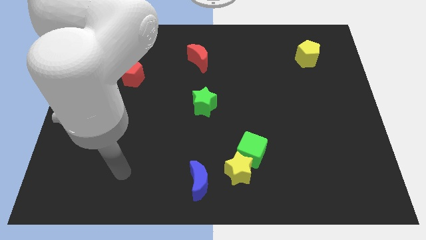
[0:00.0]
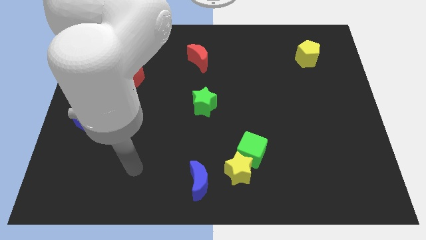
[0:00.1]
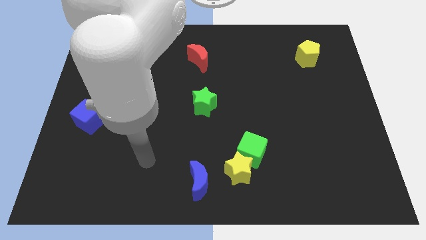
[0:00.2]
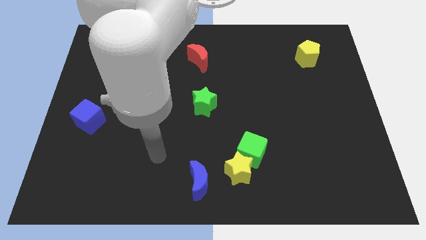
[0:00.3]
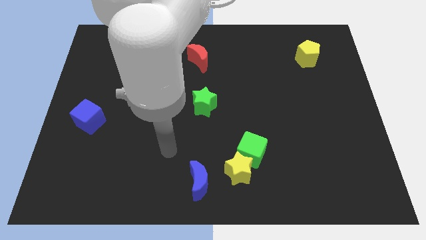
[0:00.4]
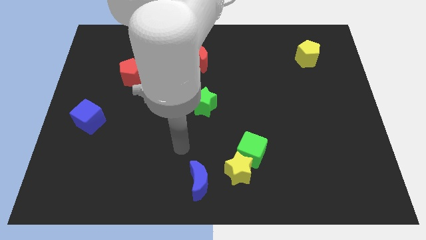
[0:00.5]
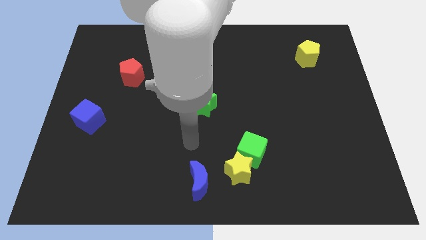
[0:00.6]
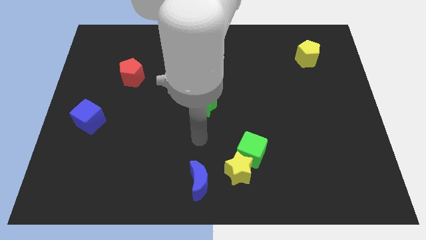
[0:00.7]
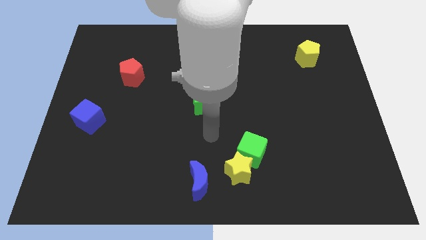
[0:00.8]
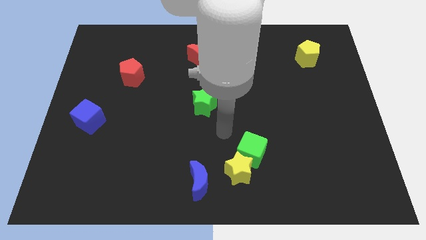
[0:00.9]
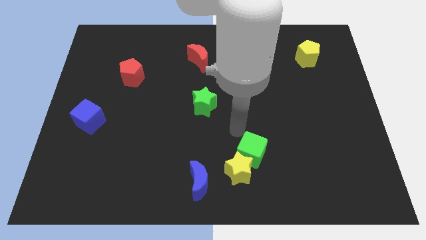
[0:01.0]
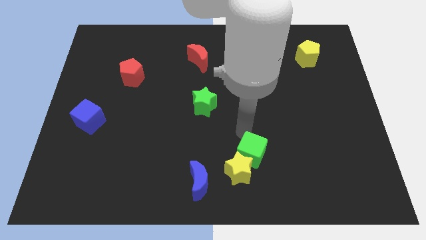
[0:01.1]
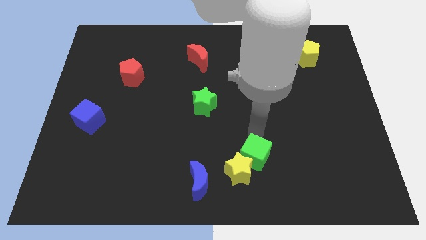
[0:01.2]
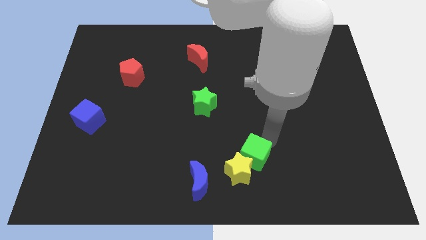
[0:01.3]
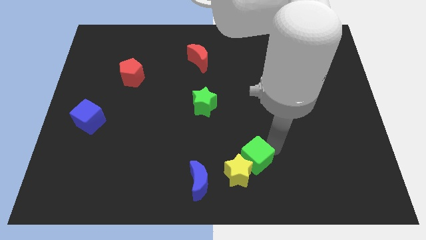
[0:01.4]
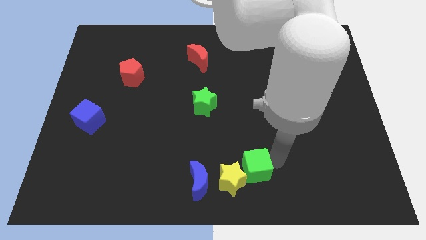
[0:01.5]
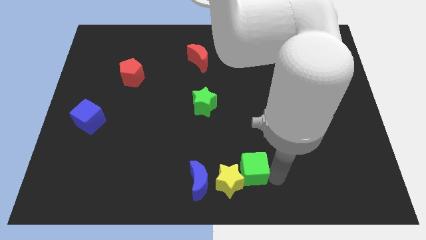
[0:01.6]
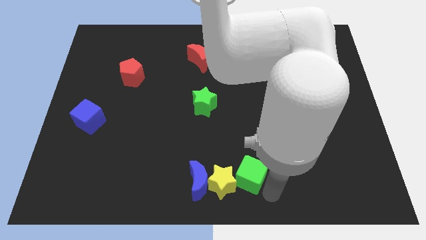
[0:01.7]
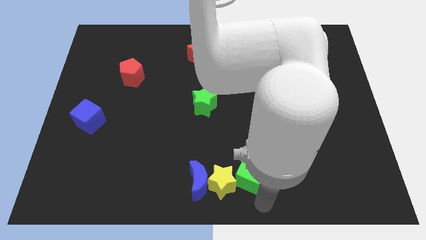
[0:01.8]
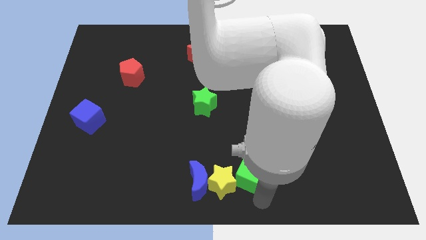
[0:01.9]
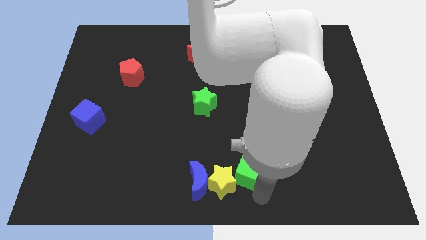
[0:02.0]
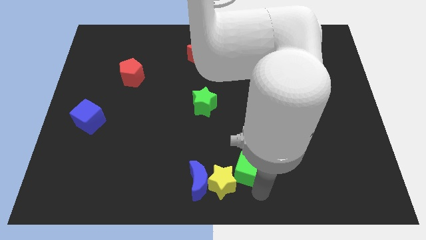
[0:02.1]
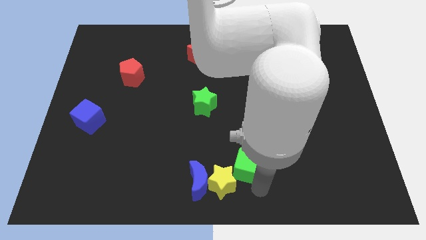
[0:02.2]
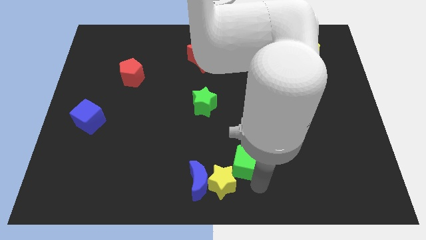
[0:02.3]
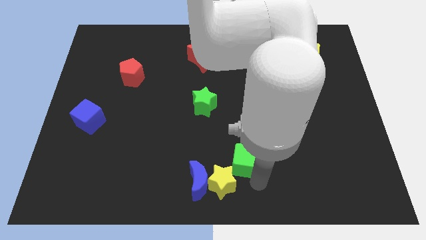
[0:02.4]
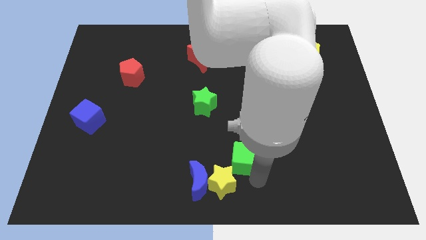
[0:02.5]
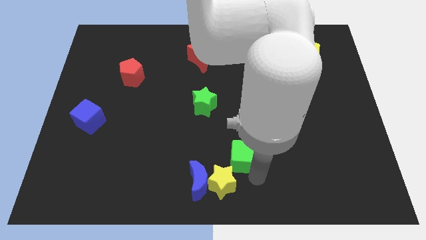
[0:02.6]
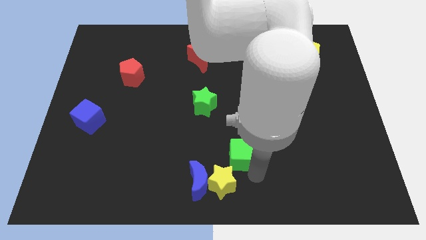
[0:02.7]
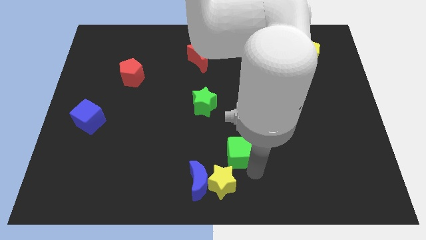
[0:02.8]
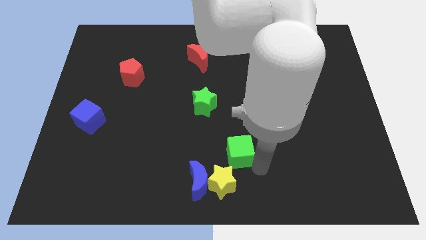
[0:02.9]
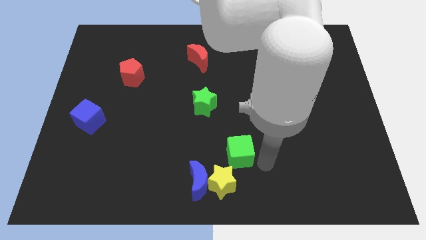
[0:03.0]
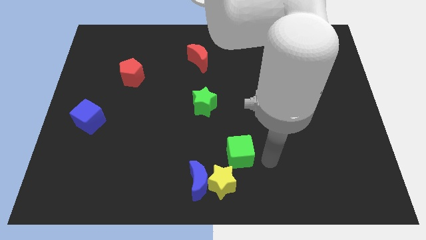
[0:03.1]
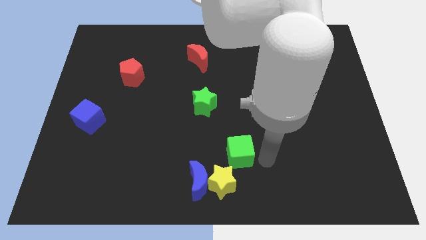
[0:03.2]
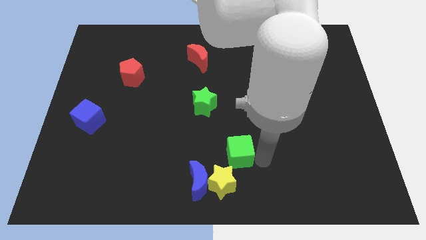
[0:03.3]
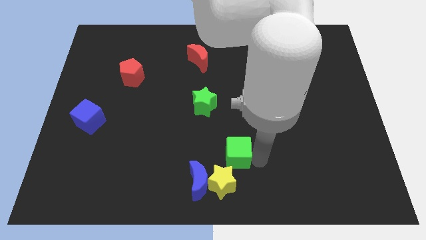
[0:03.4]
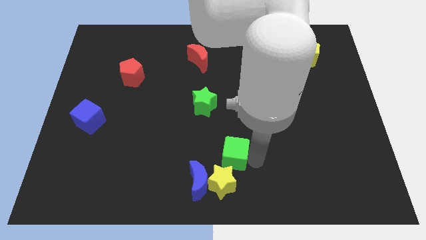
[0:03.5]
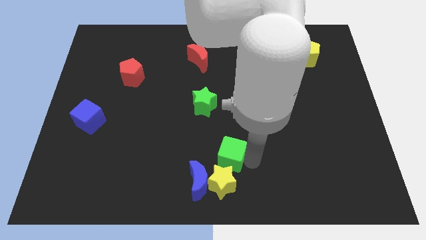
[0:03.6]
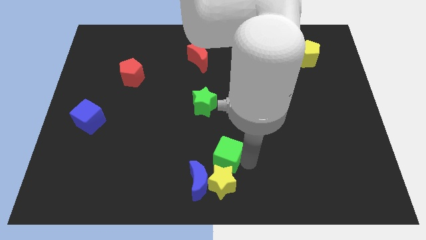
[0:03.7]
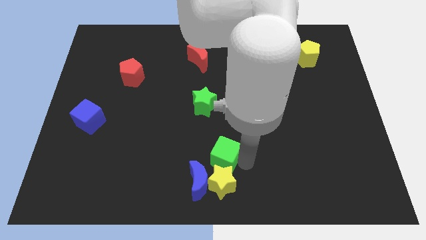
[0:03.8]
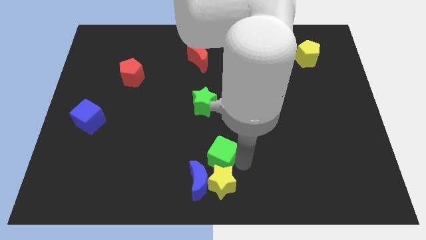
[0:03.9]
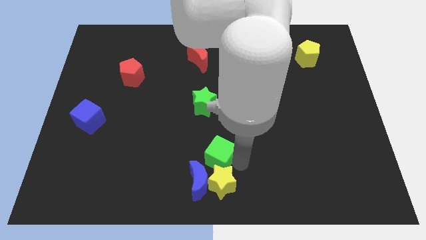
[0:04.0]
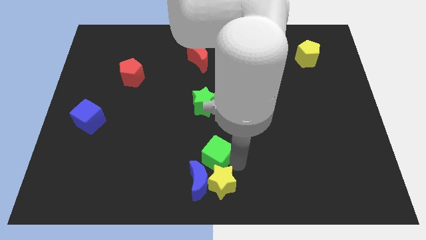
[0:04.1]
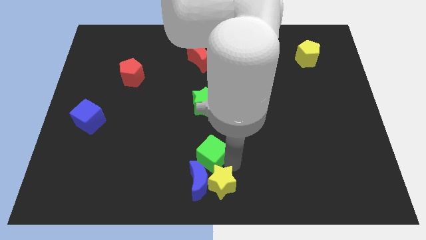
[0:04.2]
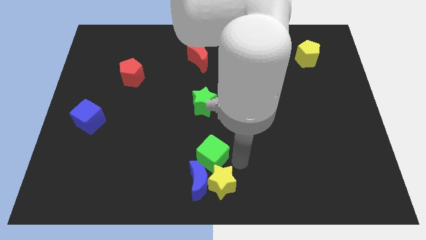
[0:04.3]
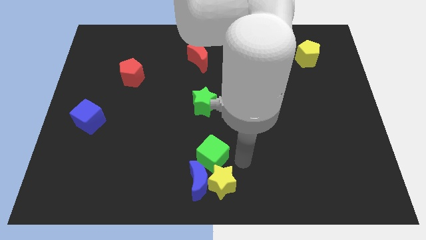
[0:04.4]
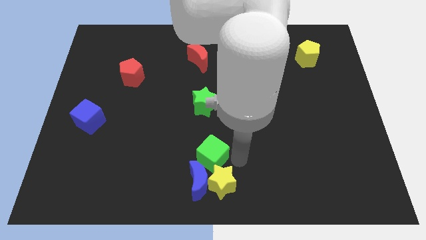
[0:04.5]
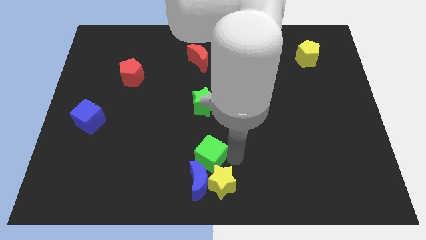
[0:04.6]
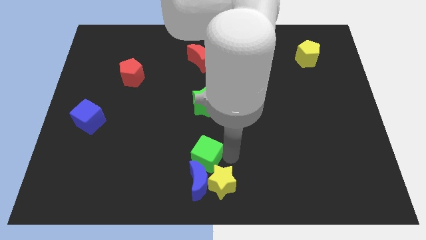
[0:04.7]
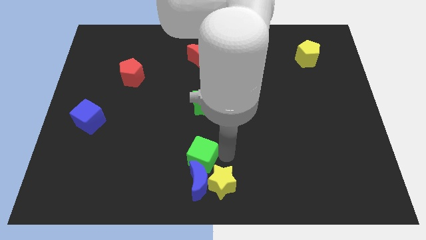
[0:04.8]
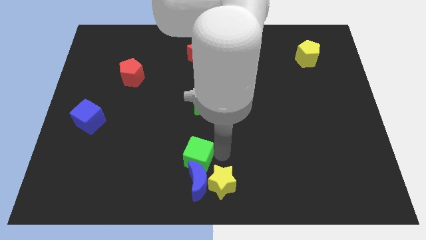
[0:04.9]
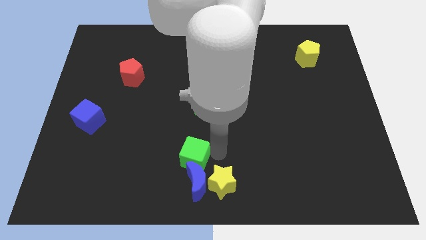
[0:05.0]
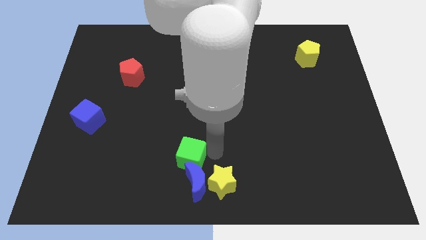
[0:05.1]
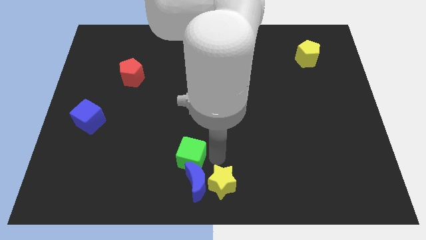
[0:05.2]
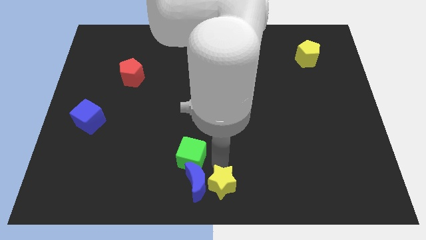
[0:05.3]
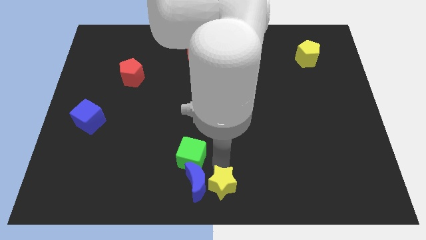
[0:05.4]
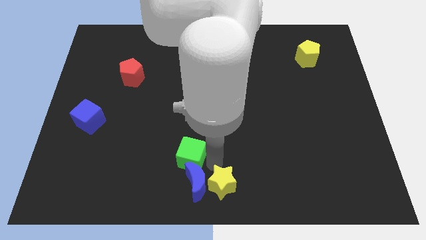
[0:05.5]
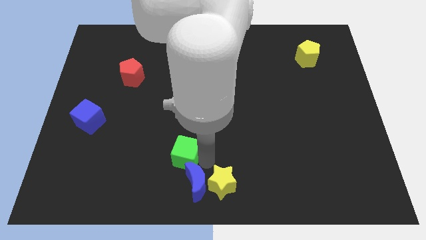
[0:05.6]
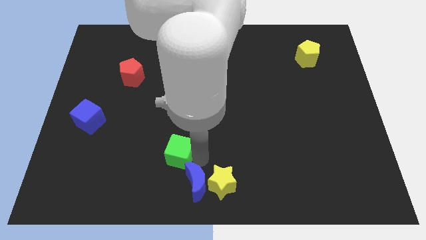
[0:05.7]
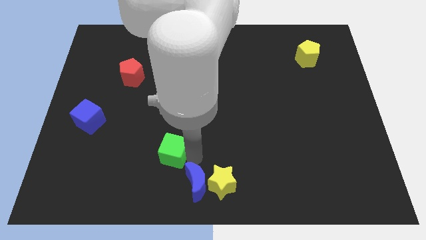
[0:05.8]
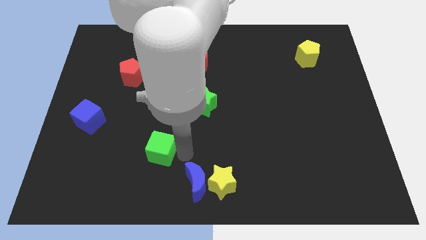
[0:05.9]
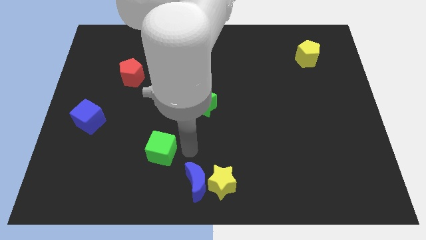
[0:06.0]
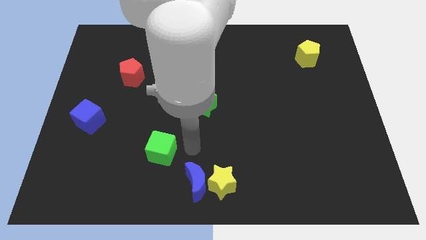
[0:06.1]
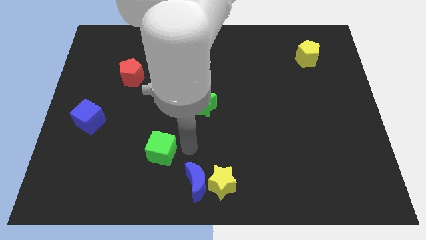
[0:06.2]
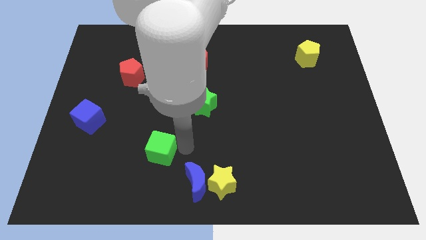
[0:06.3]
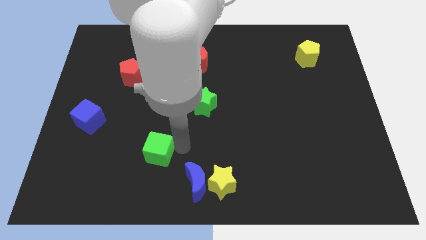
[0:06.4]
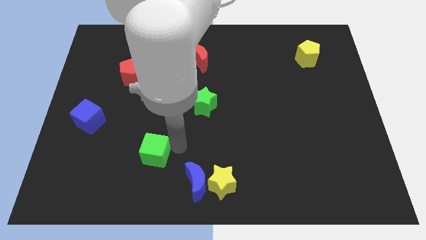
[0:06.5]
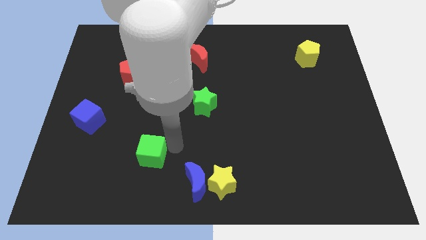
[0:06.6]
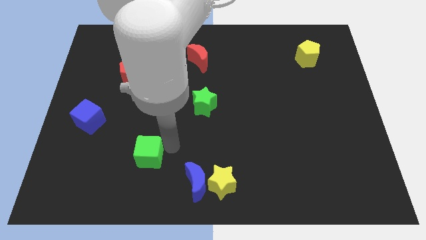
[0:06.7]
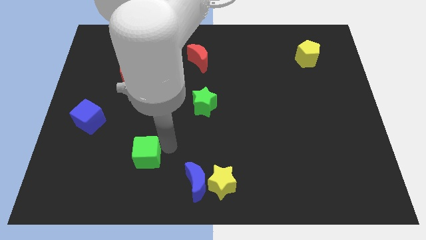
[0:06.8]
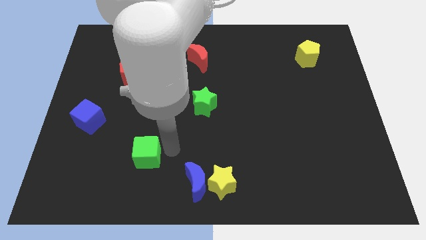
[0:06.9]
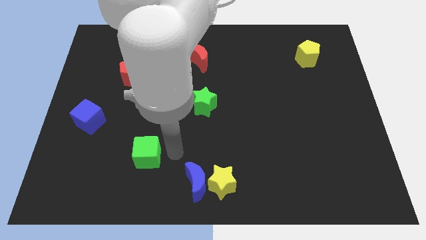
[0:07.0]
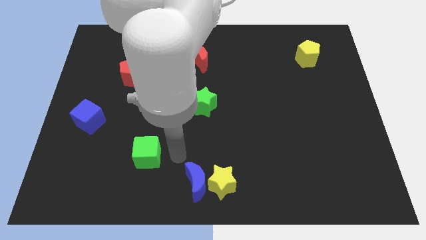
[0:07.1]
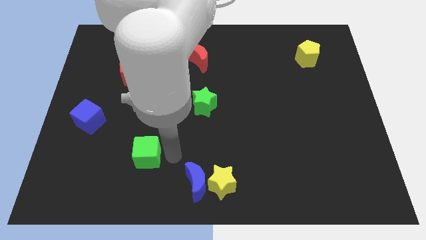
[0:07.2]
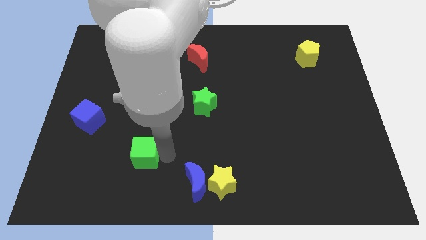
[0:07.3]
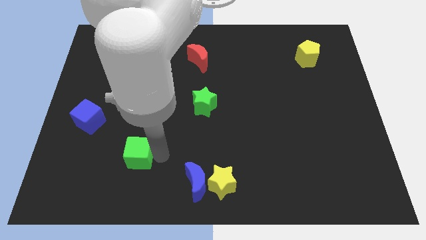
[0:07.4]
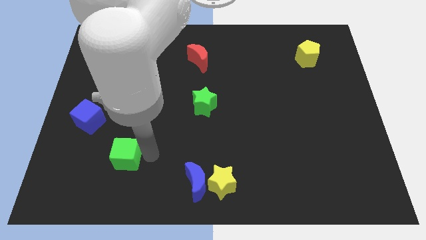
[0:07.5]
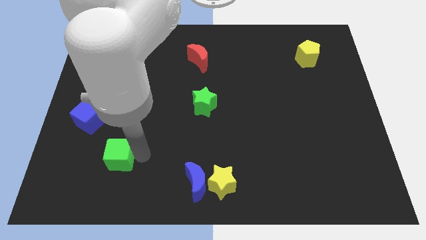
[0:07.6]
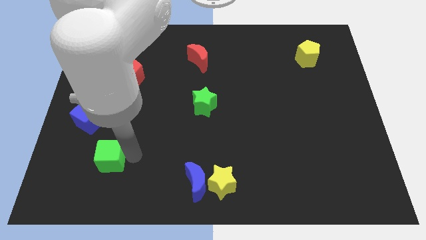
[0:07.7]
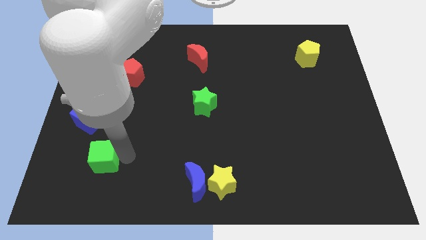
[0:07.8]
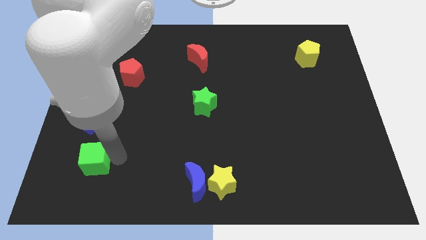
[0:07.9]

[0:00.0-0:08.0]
push the green cube to the bottom of the blue cube
